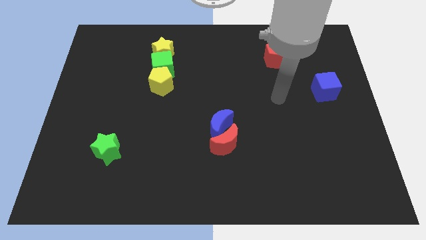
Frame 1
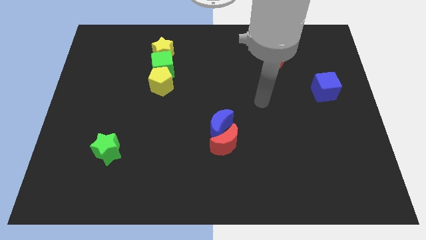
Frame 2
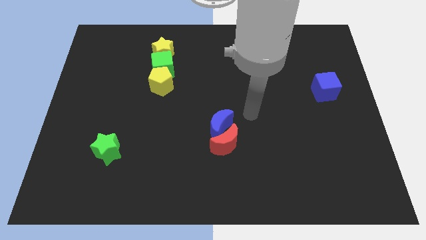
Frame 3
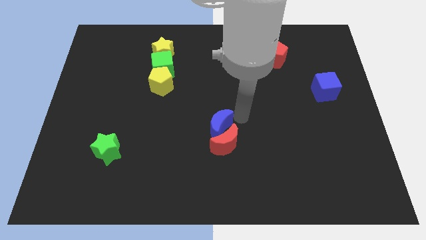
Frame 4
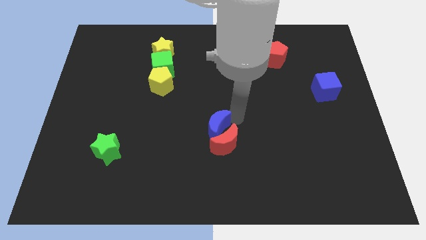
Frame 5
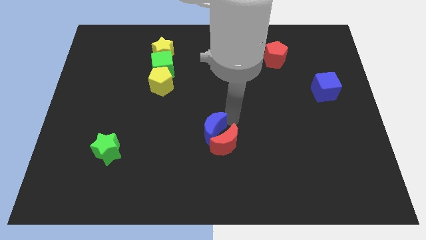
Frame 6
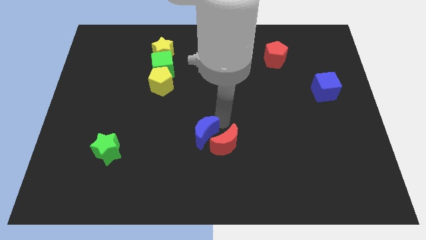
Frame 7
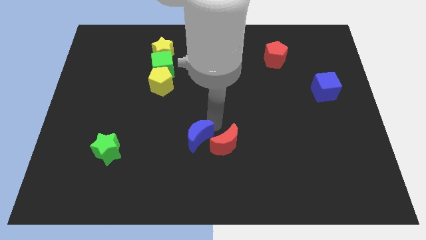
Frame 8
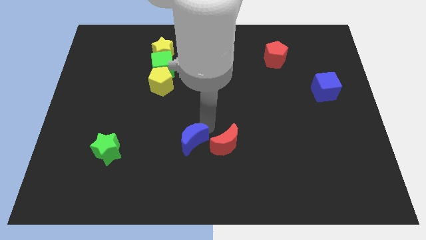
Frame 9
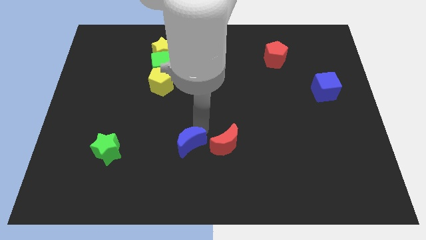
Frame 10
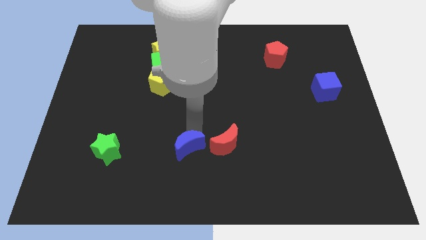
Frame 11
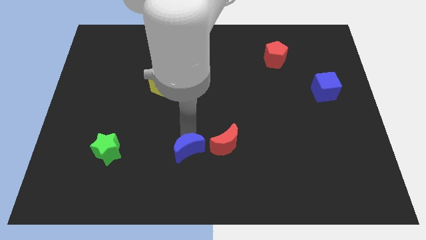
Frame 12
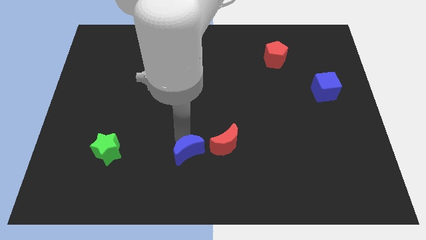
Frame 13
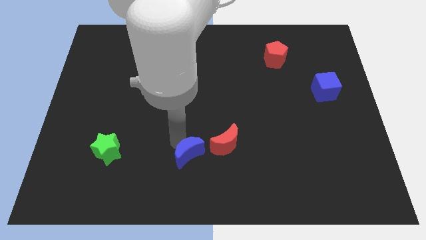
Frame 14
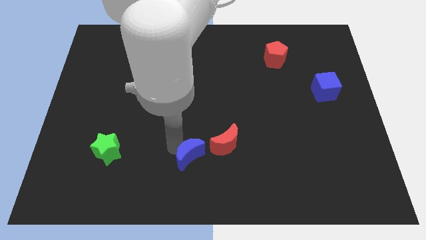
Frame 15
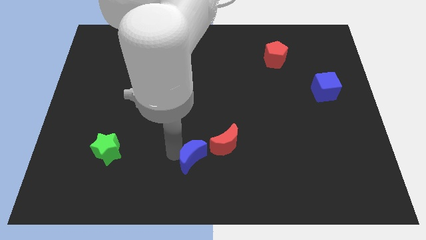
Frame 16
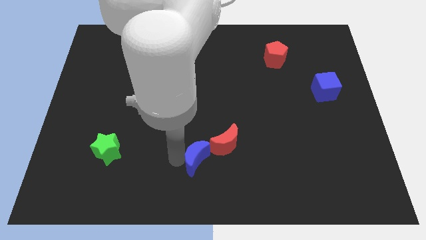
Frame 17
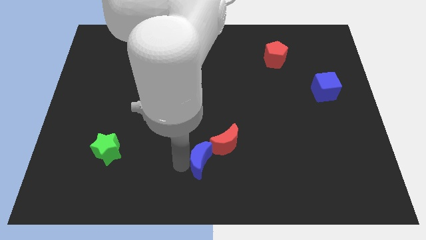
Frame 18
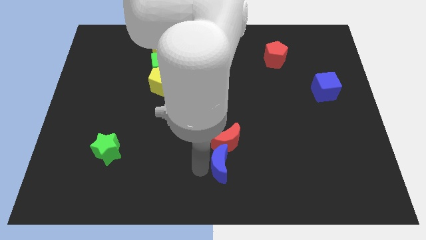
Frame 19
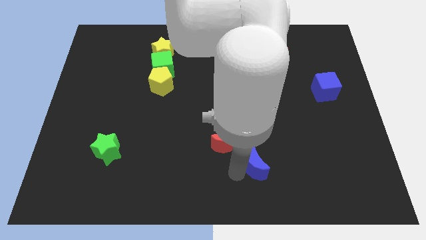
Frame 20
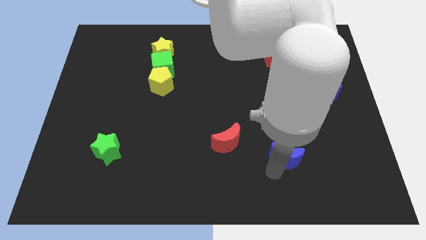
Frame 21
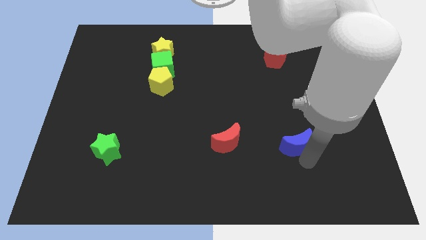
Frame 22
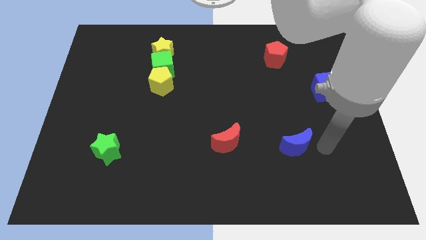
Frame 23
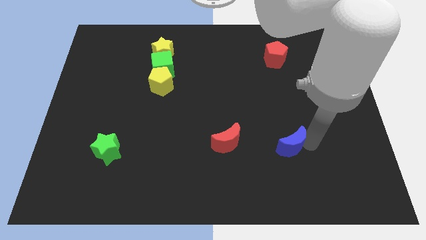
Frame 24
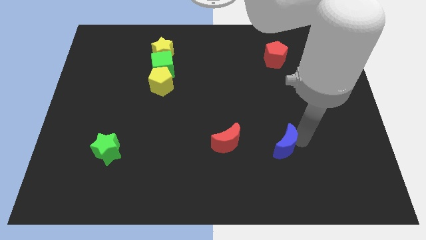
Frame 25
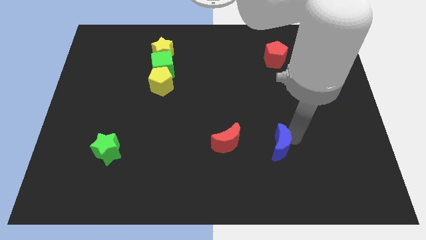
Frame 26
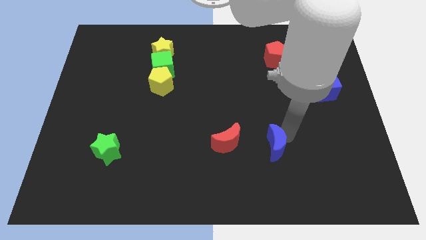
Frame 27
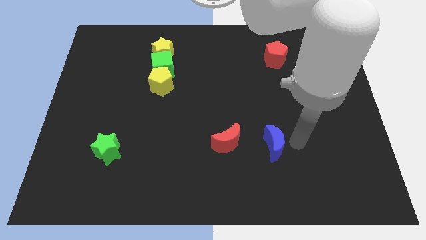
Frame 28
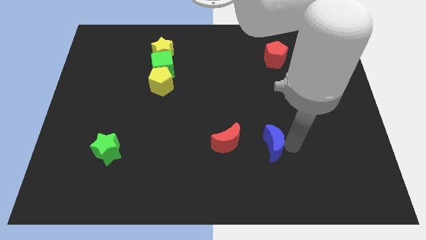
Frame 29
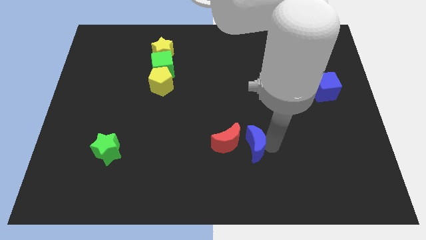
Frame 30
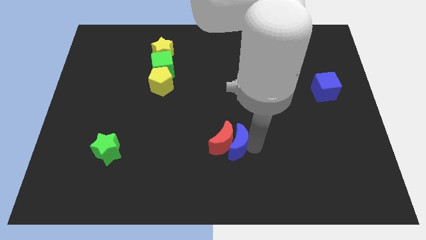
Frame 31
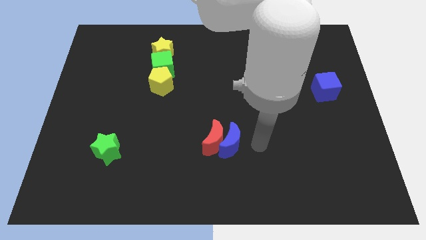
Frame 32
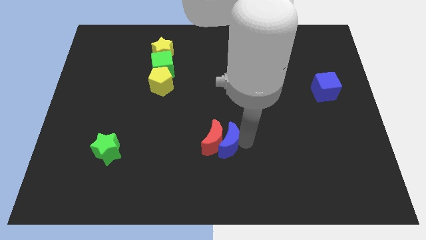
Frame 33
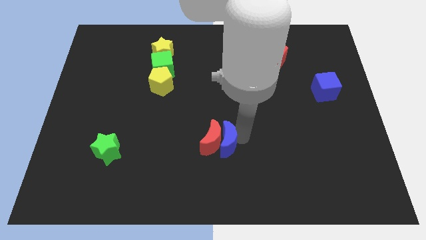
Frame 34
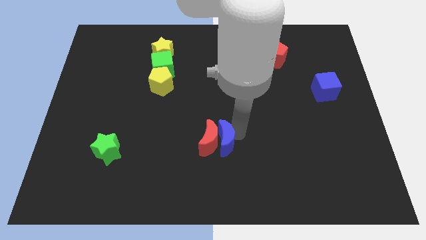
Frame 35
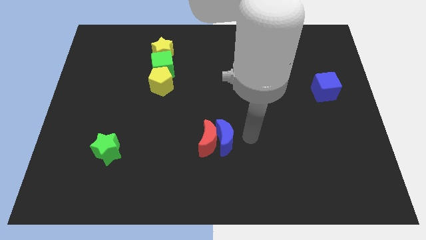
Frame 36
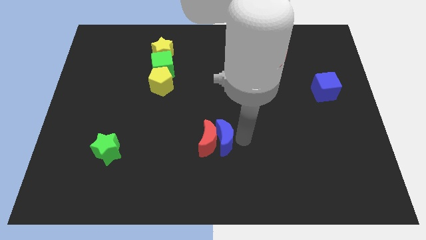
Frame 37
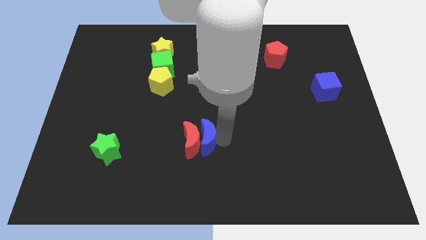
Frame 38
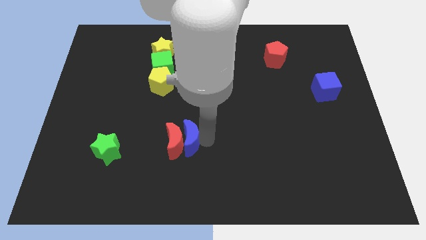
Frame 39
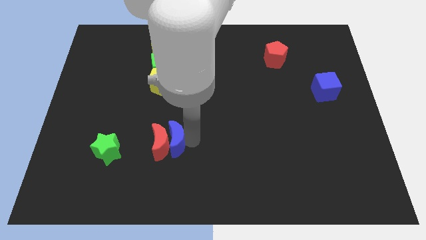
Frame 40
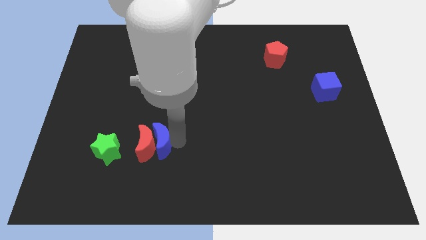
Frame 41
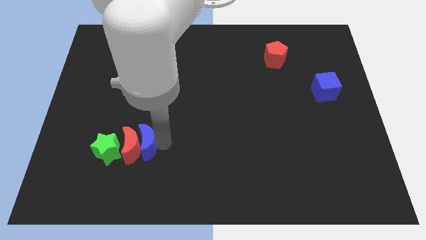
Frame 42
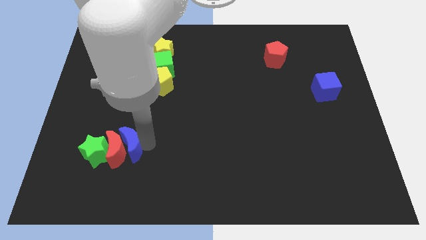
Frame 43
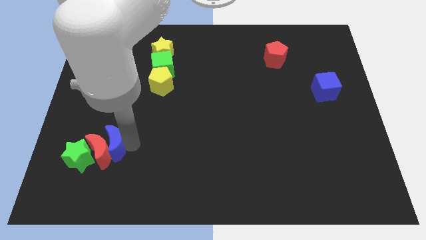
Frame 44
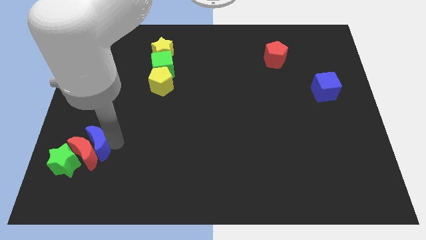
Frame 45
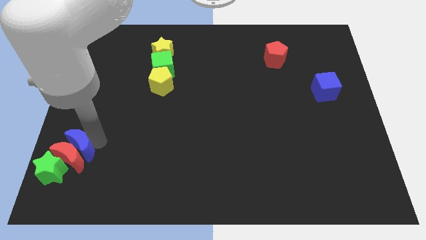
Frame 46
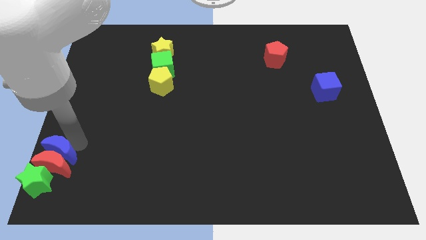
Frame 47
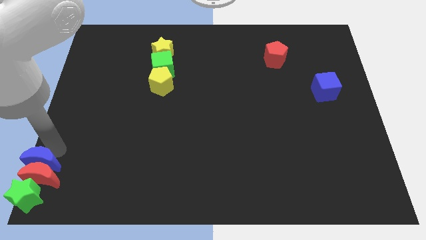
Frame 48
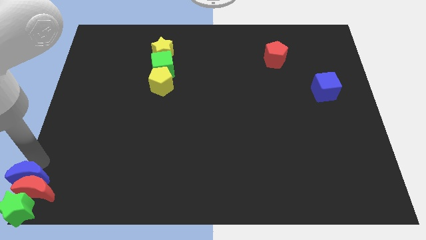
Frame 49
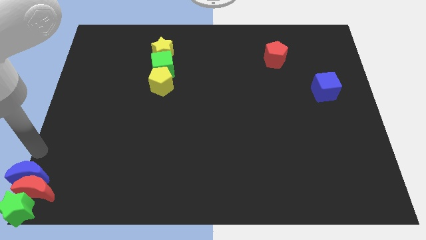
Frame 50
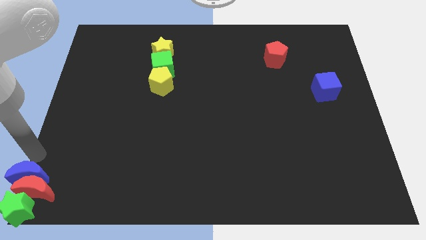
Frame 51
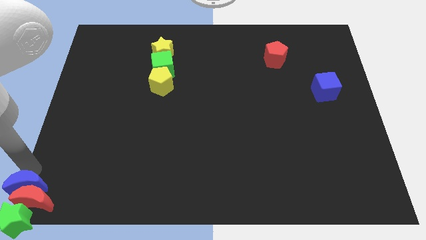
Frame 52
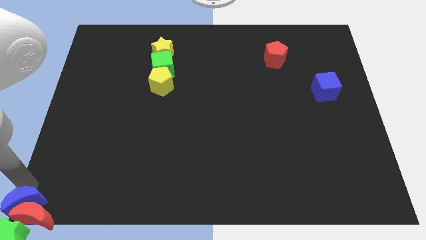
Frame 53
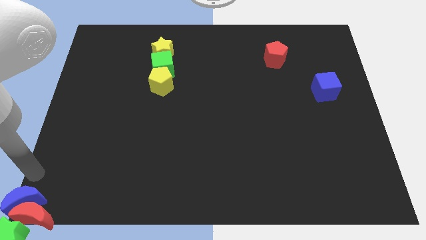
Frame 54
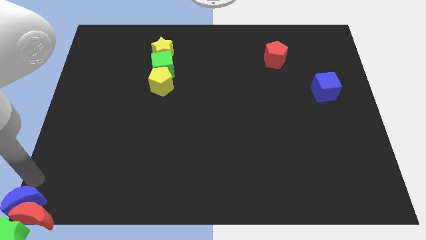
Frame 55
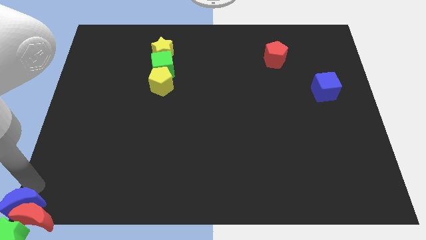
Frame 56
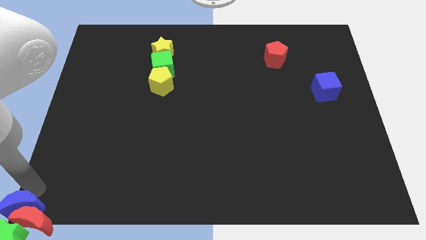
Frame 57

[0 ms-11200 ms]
push the blue moon next to the green star

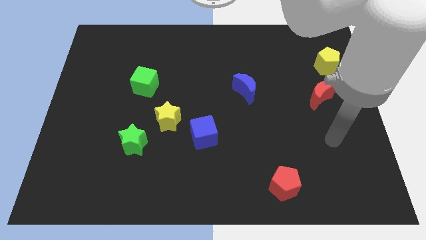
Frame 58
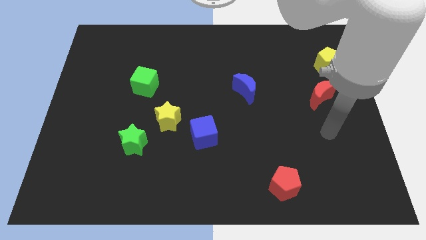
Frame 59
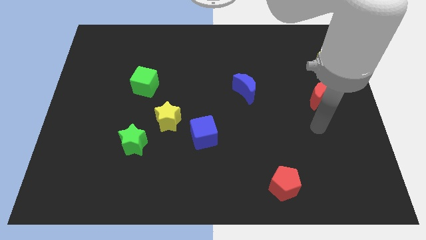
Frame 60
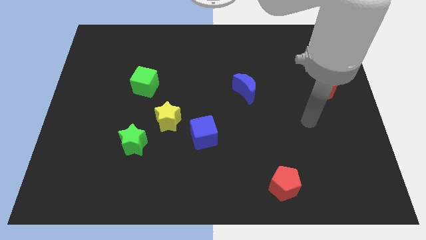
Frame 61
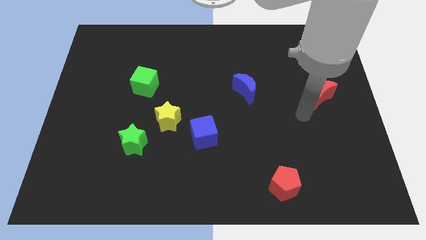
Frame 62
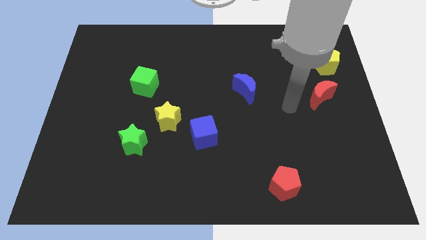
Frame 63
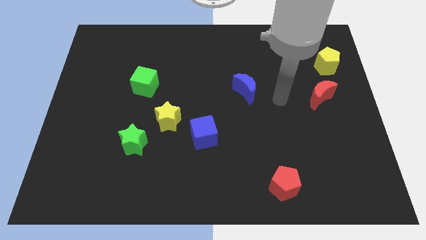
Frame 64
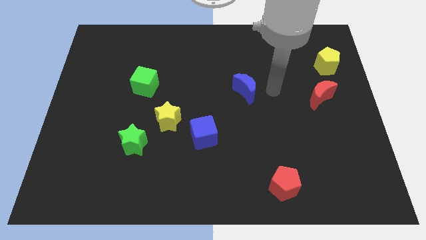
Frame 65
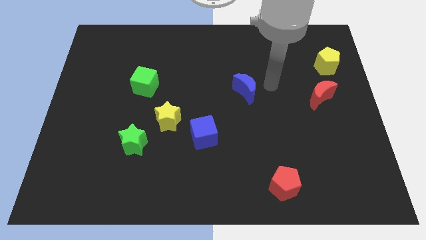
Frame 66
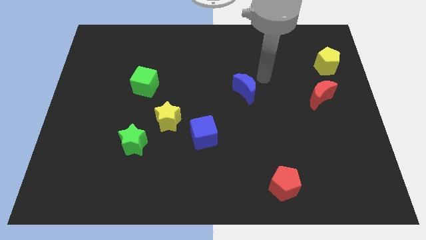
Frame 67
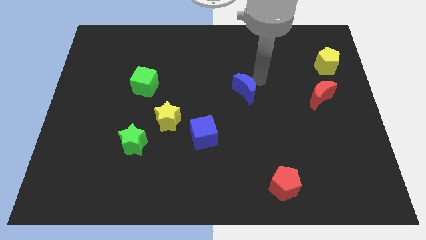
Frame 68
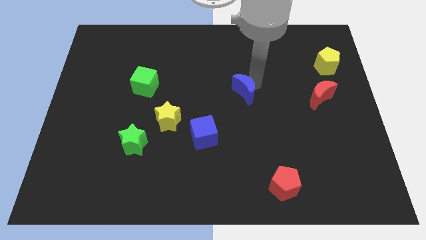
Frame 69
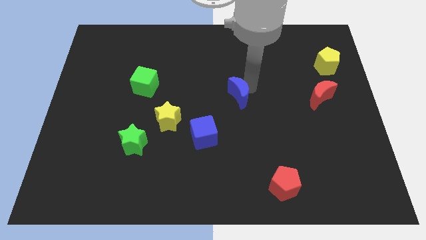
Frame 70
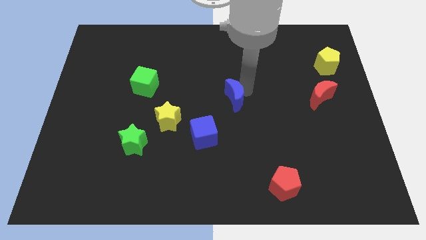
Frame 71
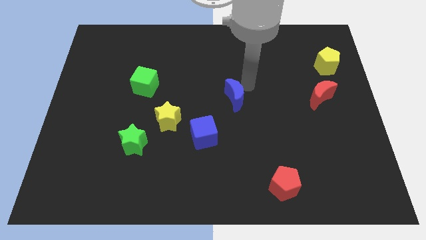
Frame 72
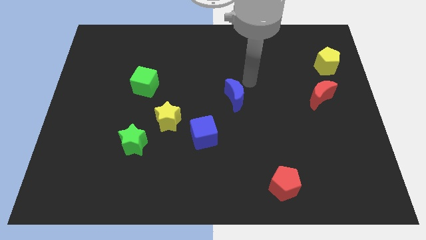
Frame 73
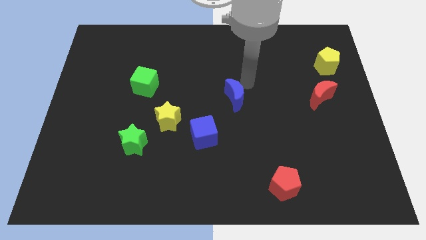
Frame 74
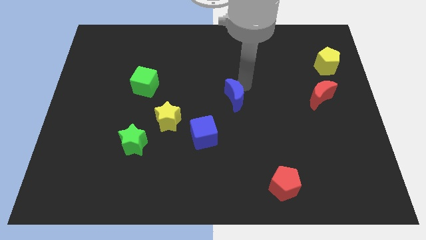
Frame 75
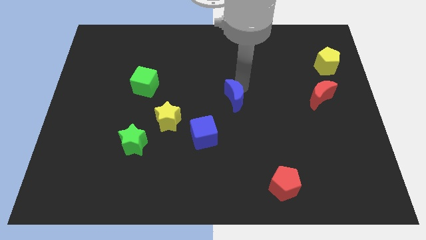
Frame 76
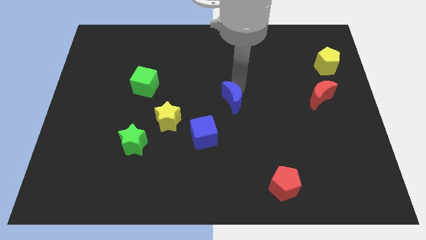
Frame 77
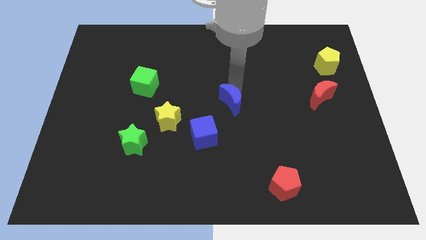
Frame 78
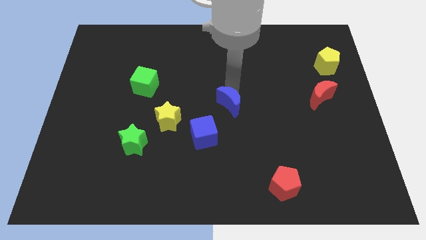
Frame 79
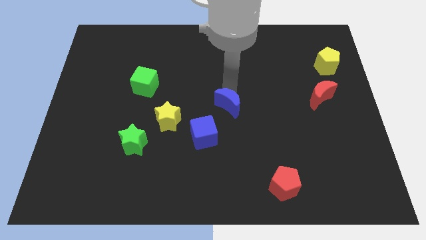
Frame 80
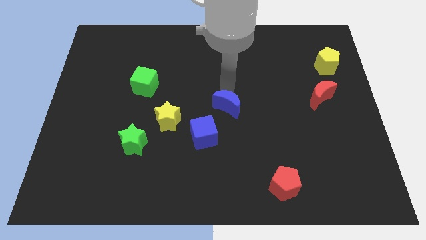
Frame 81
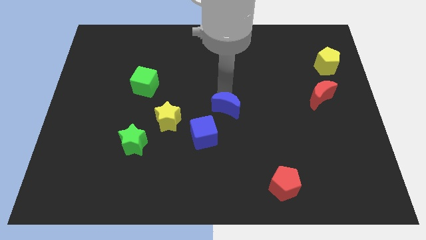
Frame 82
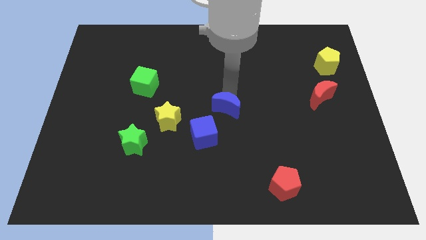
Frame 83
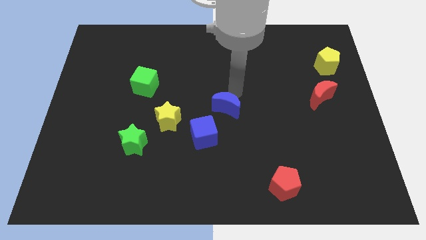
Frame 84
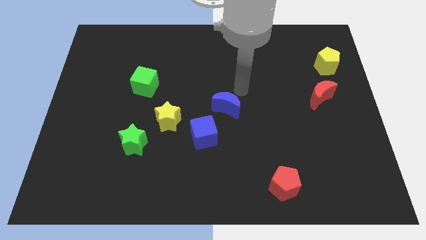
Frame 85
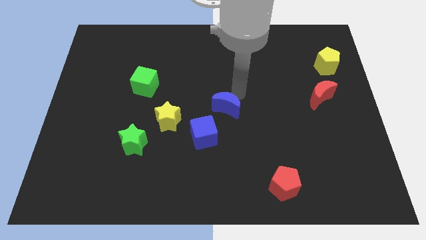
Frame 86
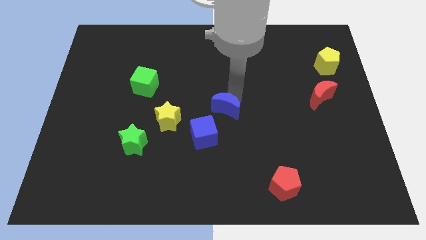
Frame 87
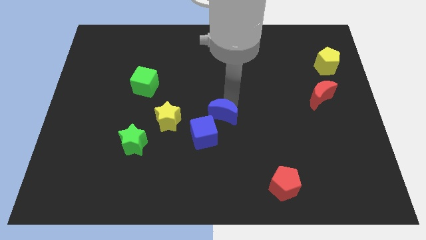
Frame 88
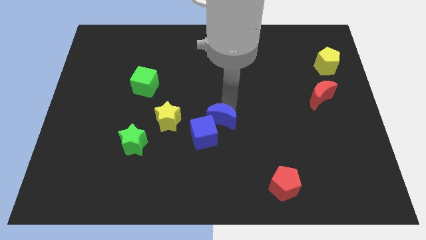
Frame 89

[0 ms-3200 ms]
move the blue moon to the blue cube
